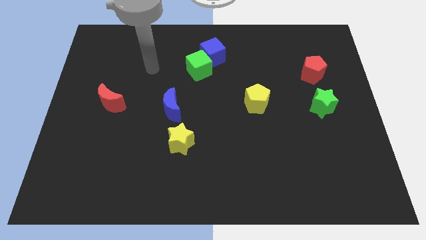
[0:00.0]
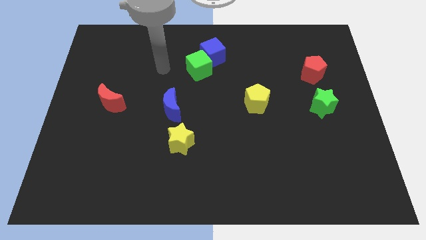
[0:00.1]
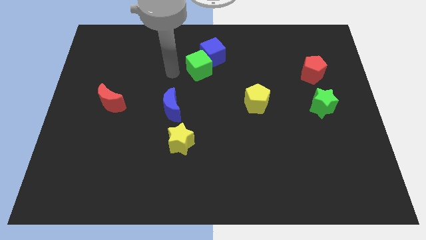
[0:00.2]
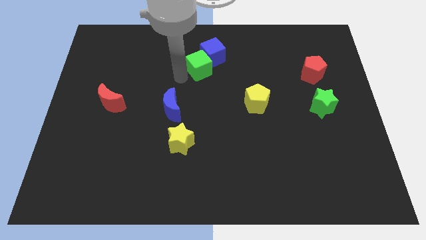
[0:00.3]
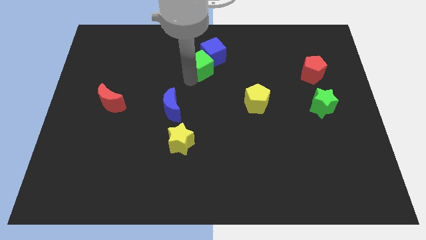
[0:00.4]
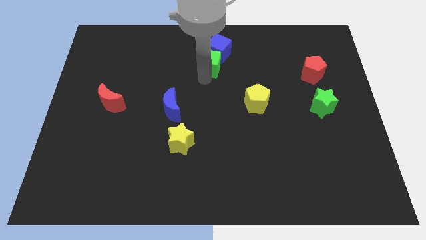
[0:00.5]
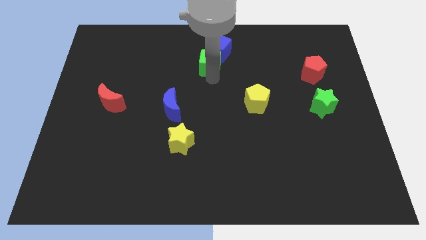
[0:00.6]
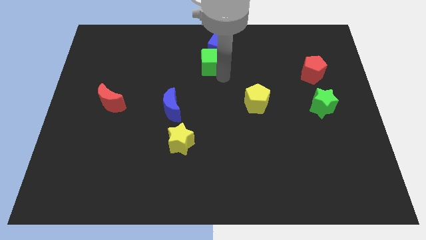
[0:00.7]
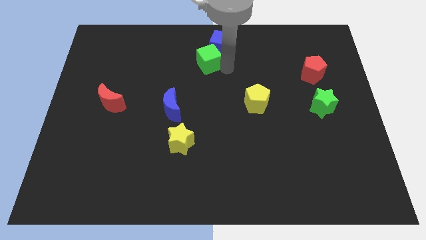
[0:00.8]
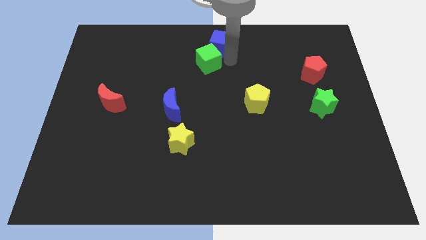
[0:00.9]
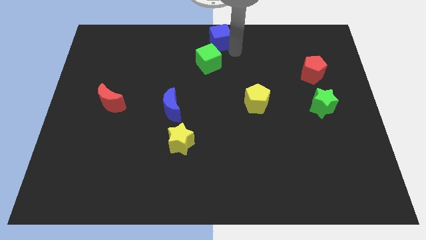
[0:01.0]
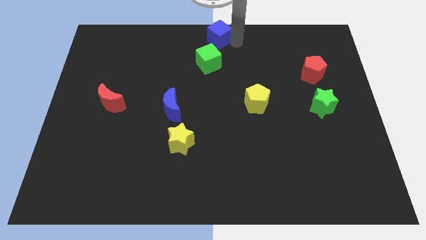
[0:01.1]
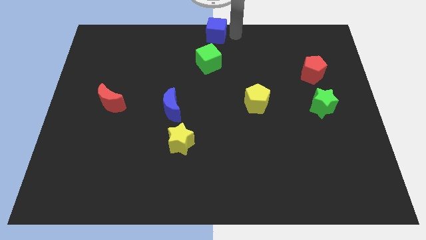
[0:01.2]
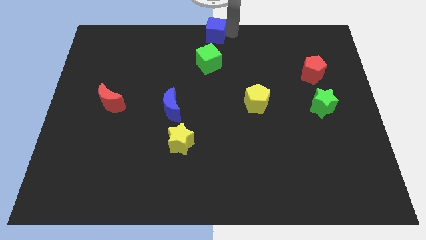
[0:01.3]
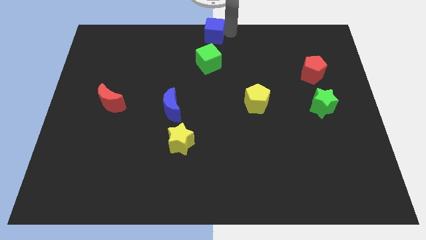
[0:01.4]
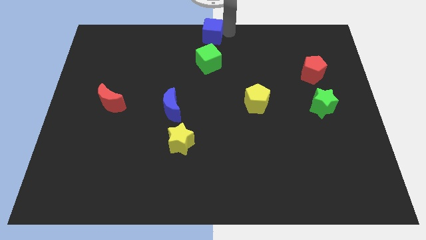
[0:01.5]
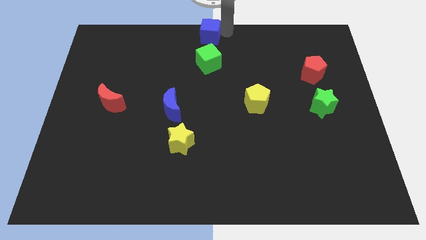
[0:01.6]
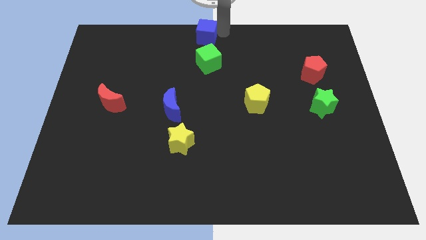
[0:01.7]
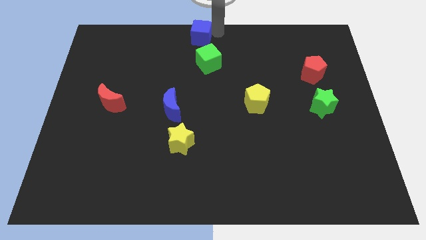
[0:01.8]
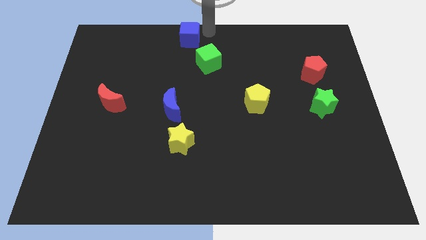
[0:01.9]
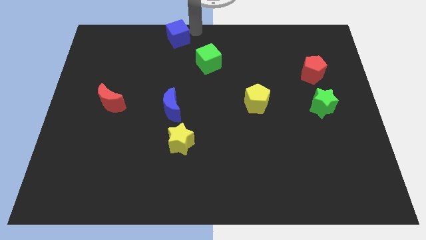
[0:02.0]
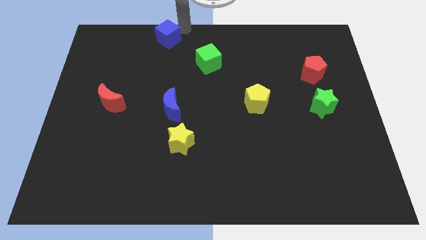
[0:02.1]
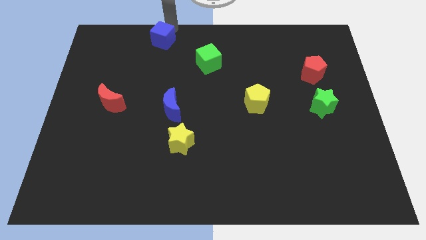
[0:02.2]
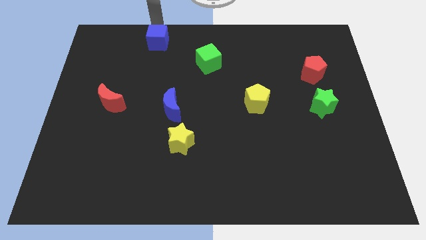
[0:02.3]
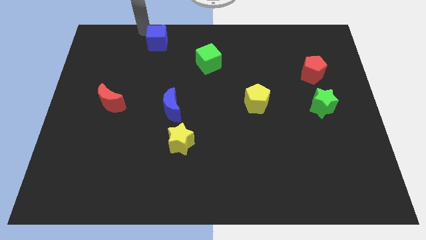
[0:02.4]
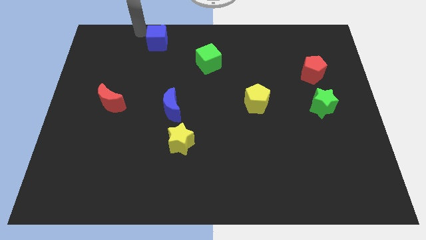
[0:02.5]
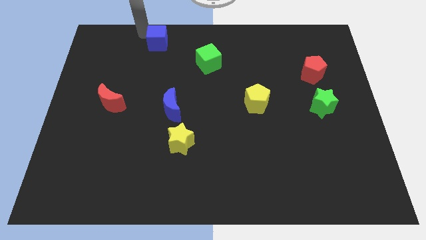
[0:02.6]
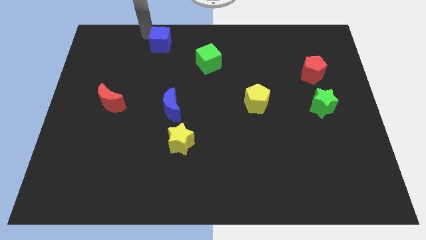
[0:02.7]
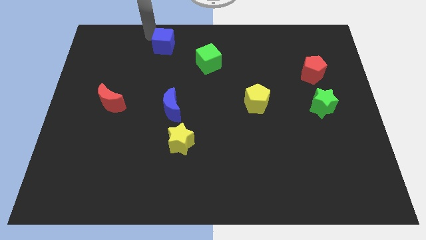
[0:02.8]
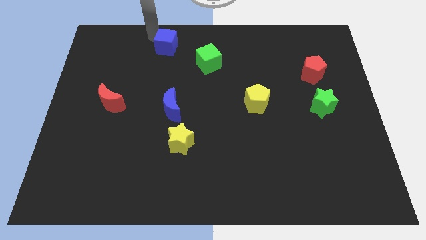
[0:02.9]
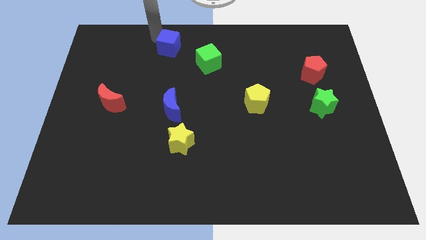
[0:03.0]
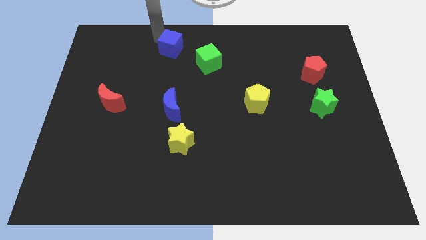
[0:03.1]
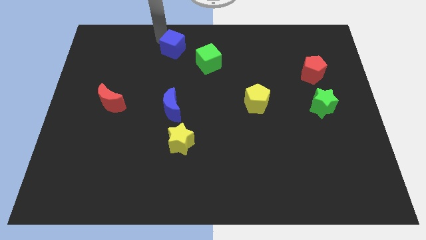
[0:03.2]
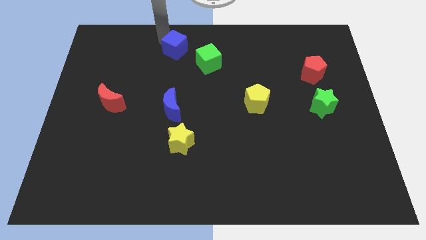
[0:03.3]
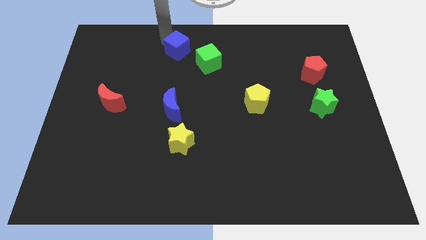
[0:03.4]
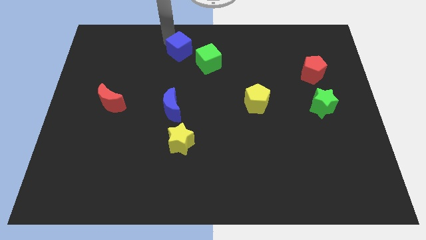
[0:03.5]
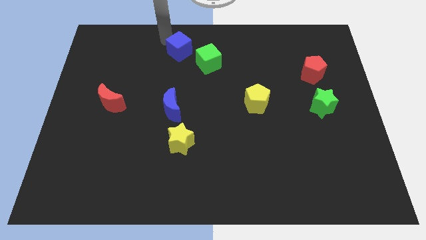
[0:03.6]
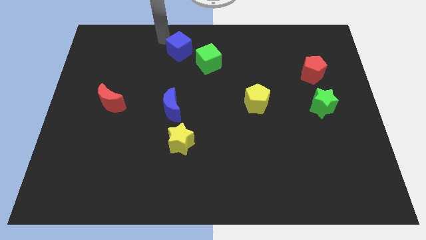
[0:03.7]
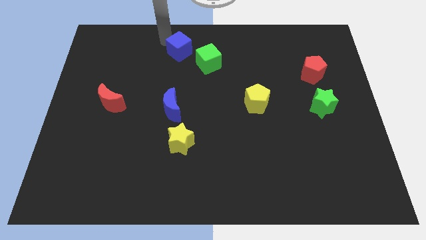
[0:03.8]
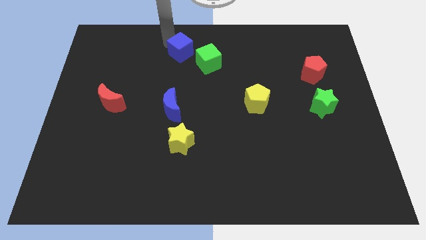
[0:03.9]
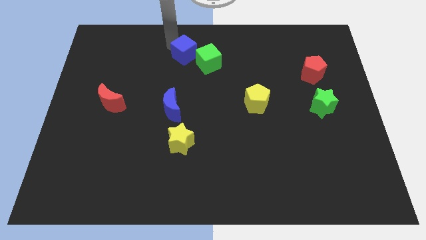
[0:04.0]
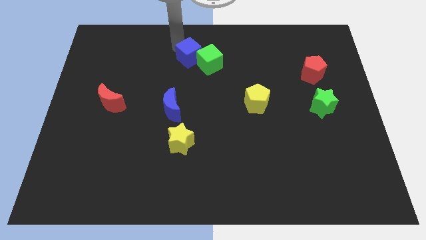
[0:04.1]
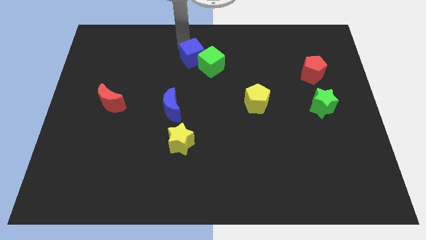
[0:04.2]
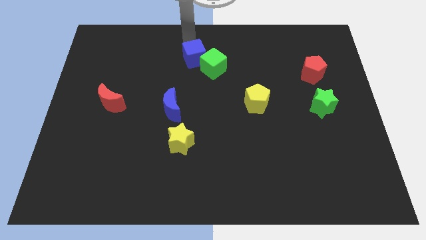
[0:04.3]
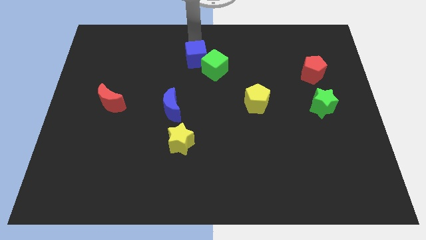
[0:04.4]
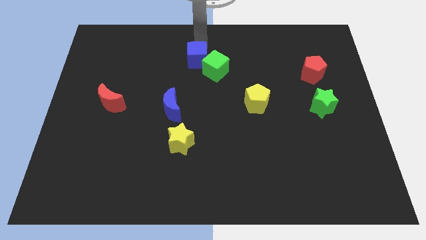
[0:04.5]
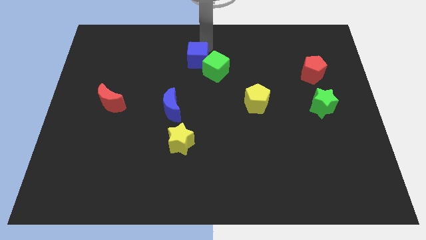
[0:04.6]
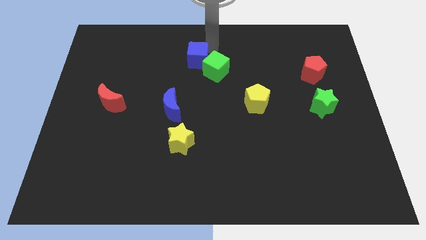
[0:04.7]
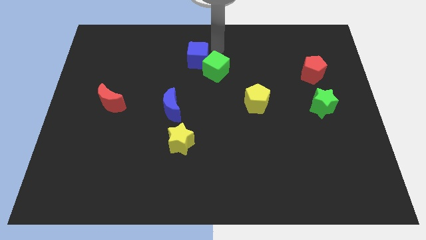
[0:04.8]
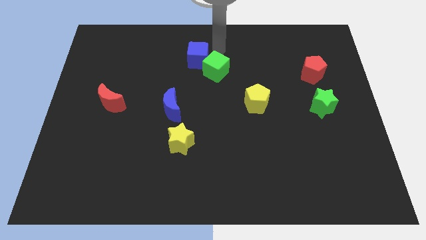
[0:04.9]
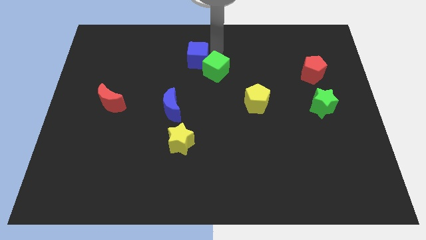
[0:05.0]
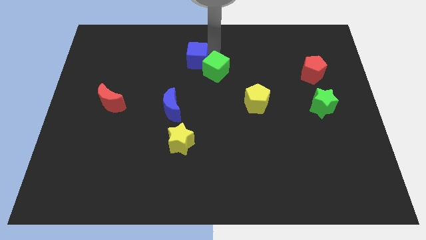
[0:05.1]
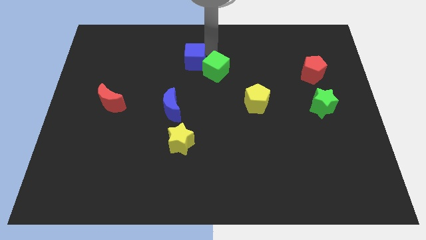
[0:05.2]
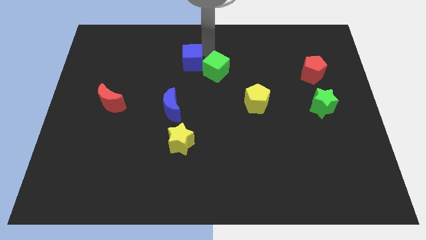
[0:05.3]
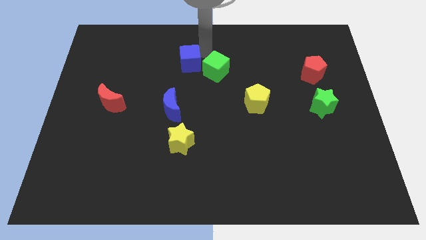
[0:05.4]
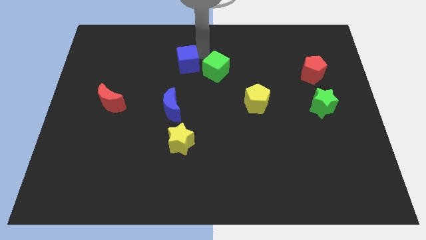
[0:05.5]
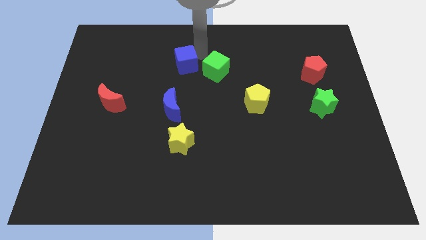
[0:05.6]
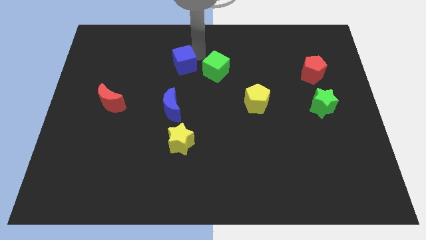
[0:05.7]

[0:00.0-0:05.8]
move the blue cube down and then left a little bit

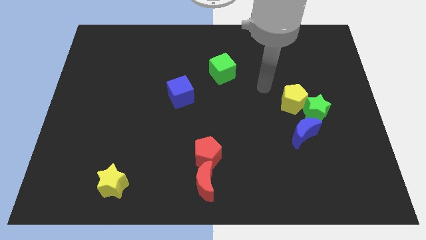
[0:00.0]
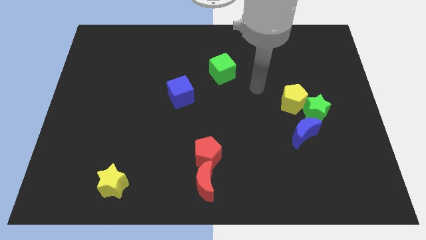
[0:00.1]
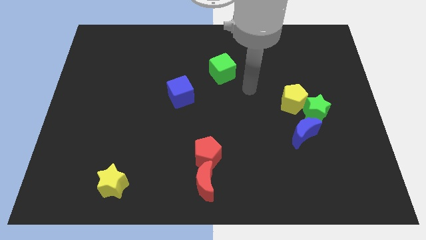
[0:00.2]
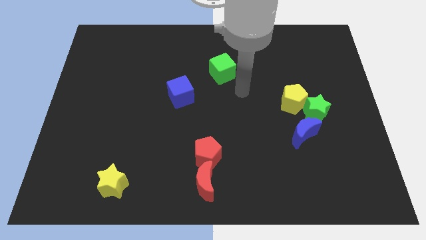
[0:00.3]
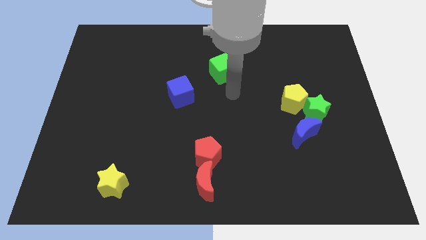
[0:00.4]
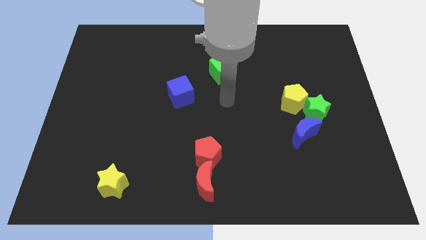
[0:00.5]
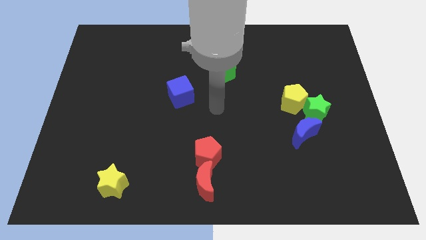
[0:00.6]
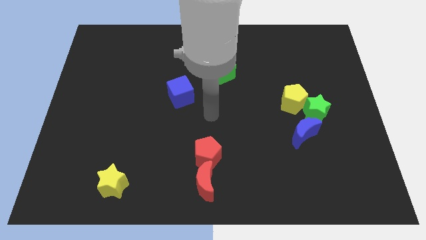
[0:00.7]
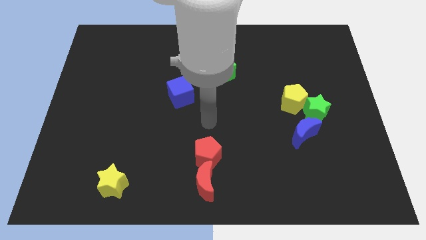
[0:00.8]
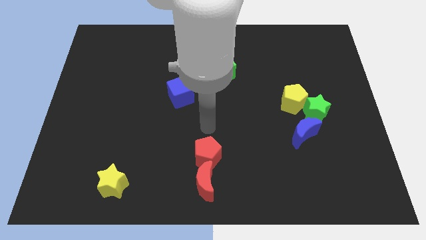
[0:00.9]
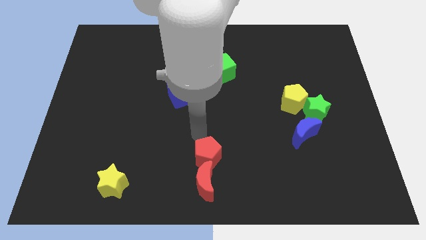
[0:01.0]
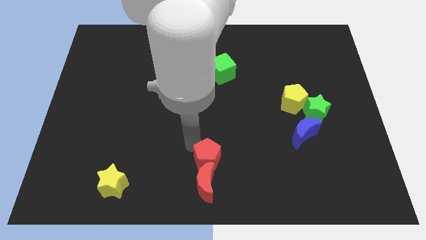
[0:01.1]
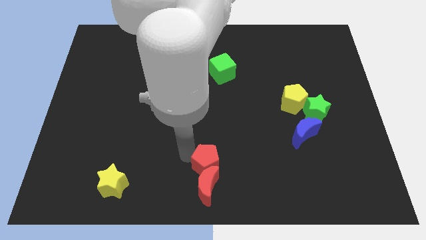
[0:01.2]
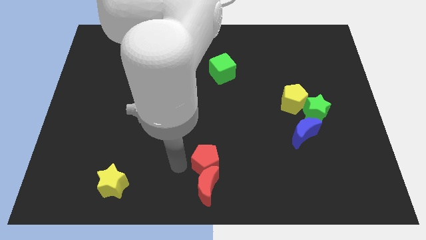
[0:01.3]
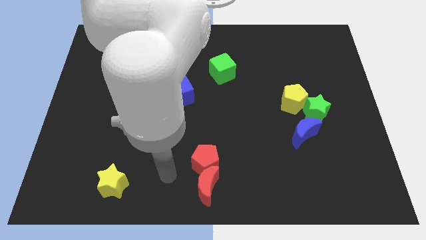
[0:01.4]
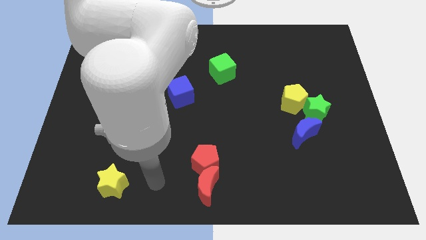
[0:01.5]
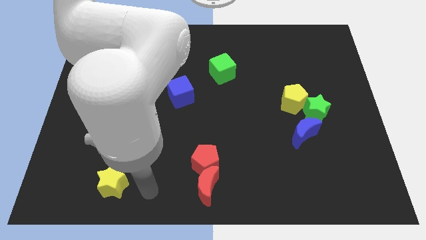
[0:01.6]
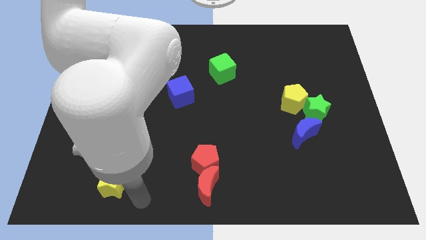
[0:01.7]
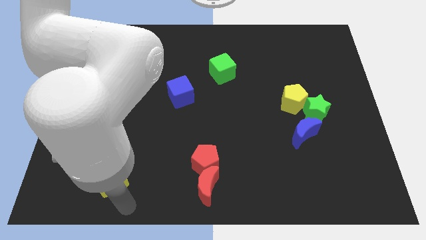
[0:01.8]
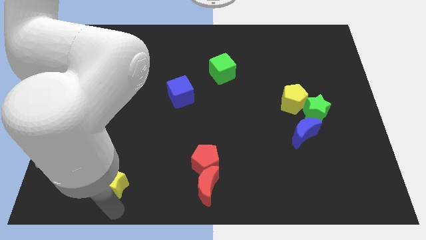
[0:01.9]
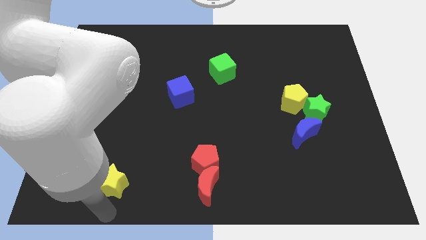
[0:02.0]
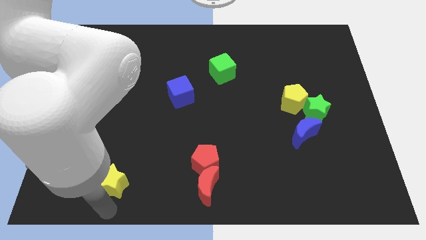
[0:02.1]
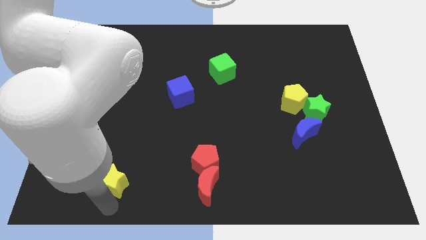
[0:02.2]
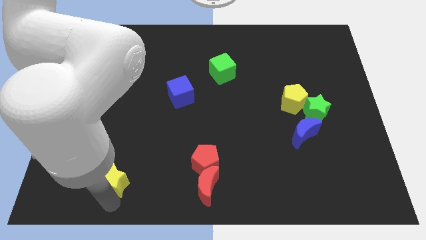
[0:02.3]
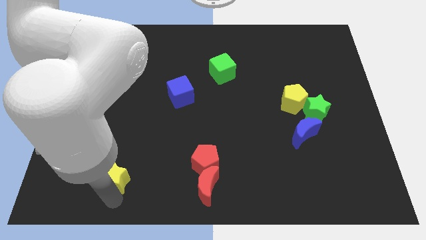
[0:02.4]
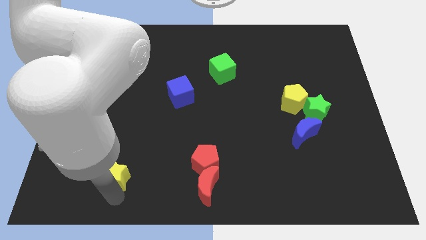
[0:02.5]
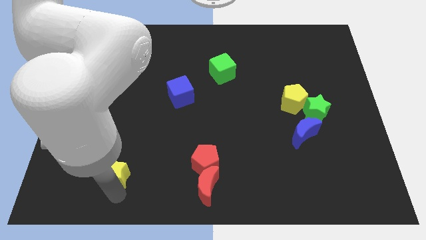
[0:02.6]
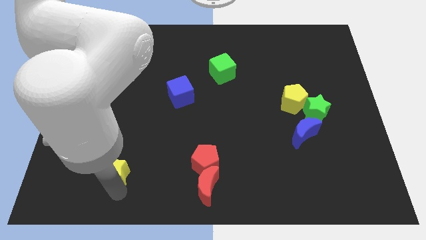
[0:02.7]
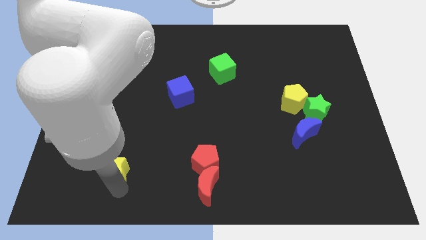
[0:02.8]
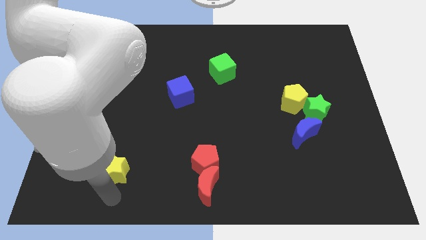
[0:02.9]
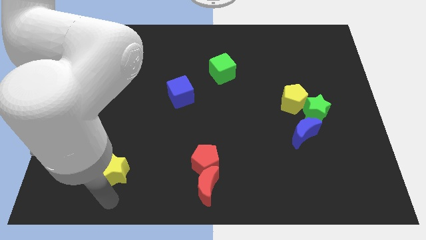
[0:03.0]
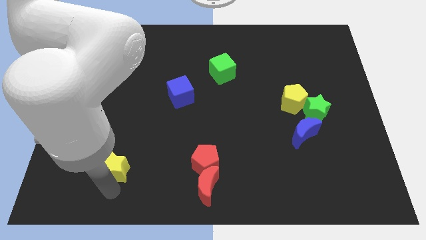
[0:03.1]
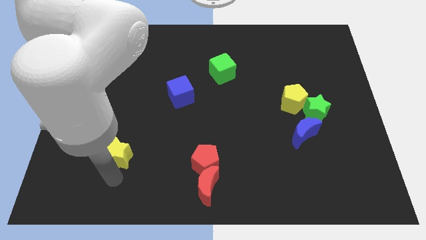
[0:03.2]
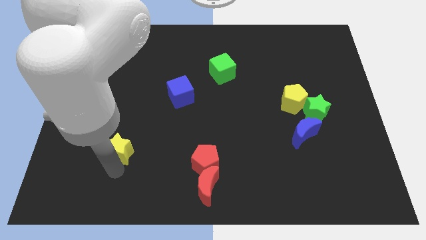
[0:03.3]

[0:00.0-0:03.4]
slightly move the yellow star up
